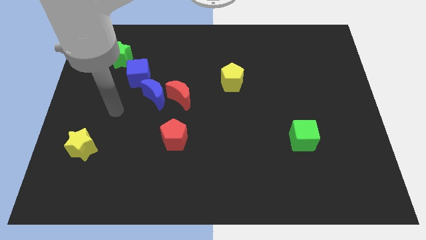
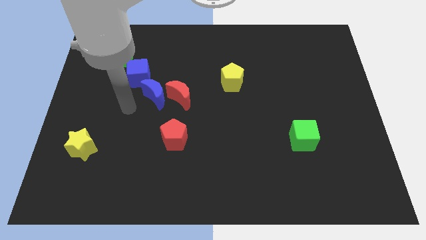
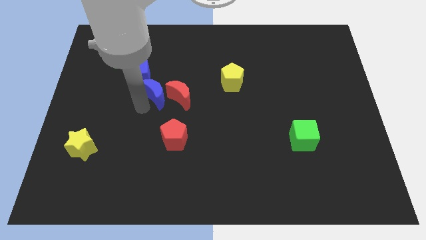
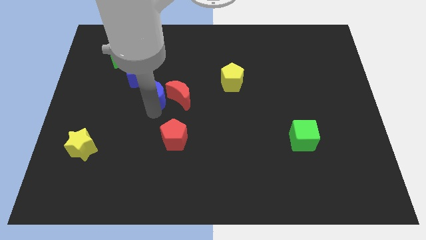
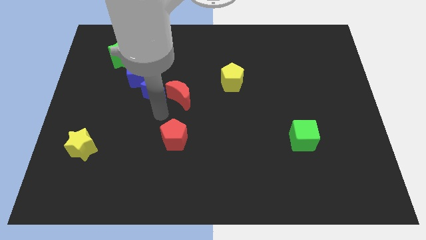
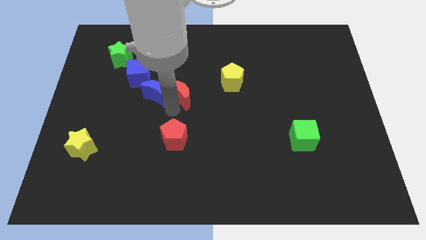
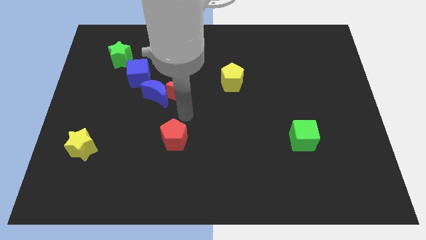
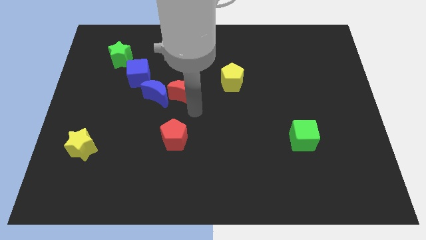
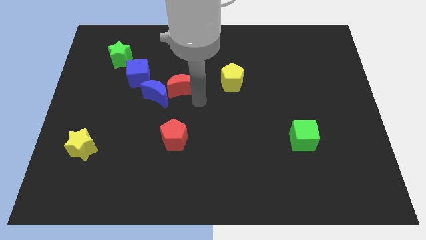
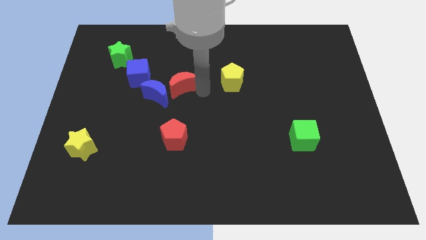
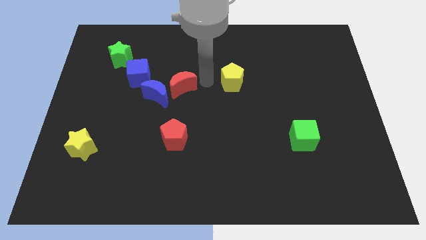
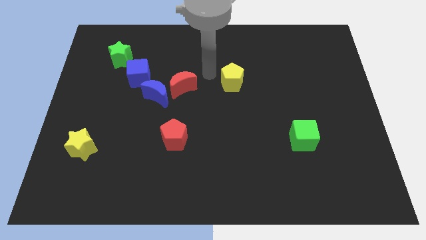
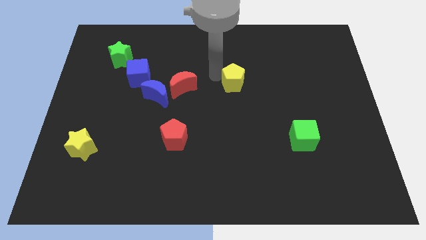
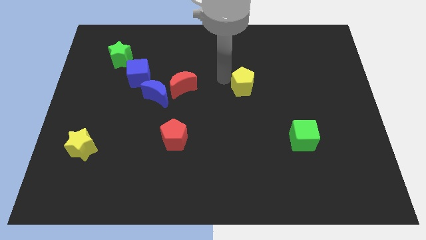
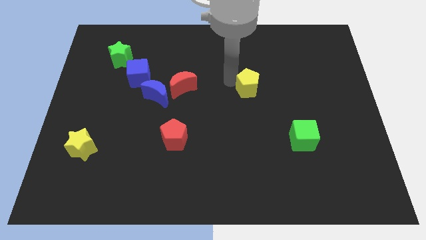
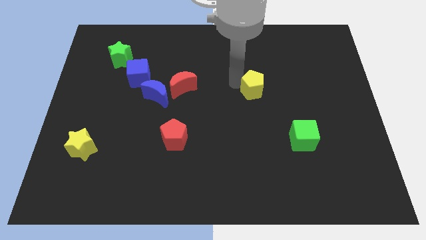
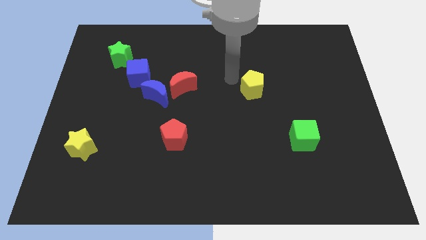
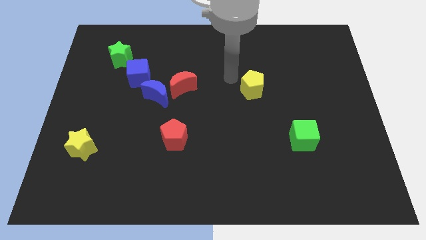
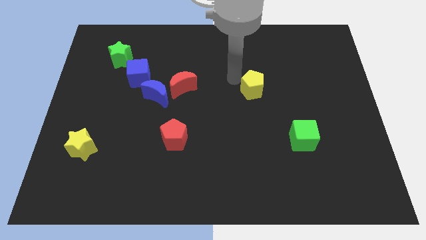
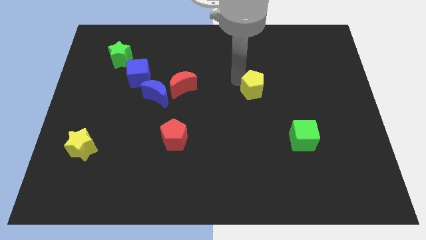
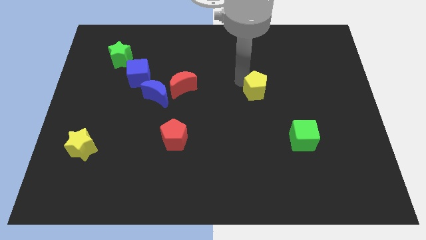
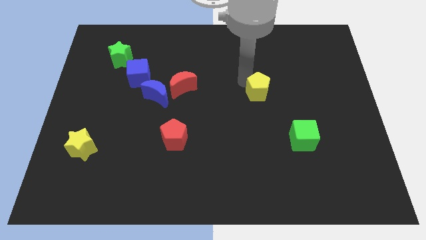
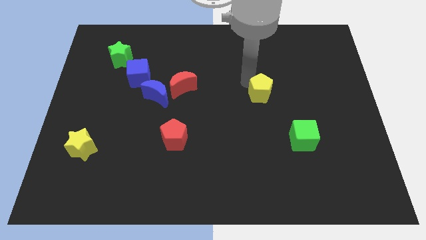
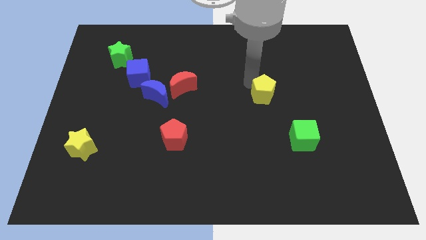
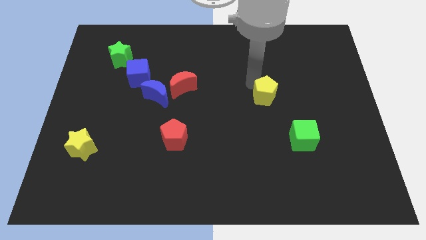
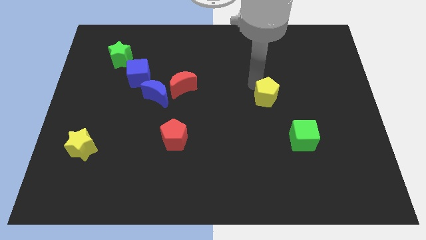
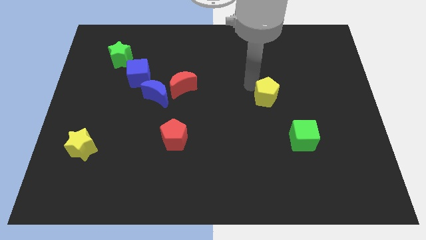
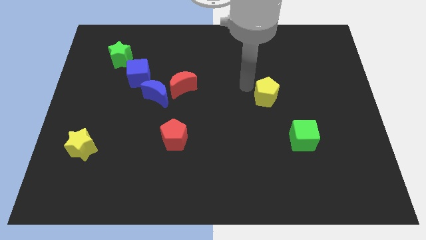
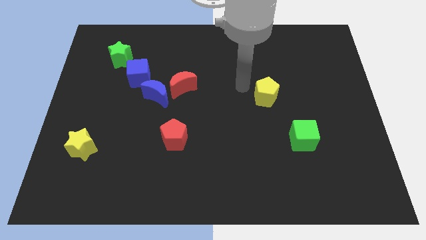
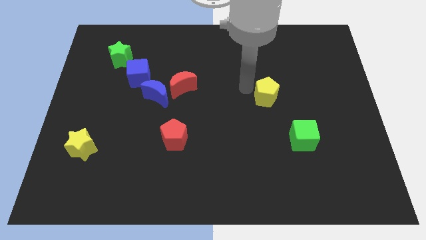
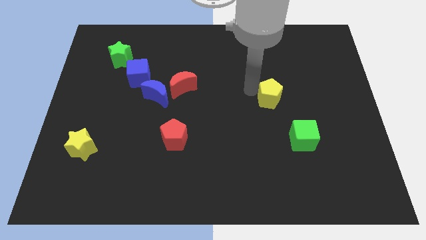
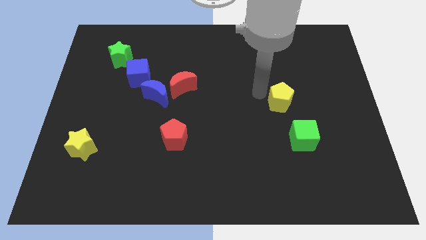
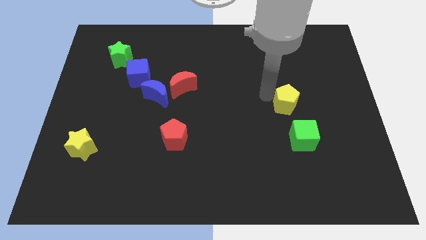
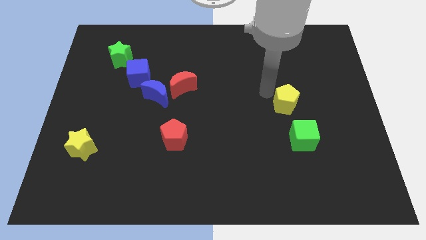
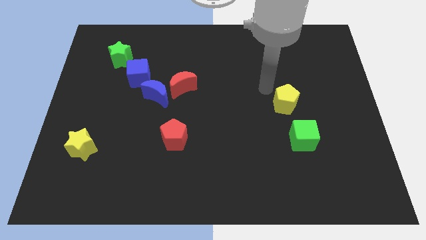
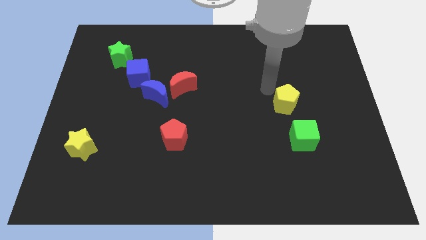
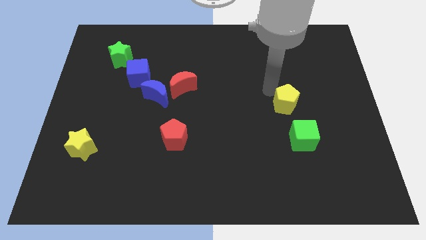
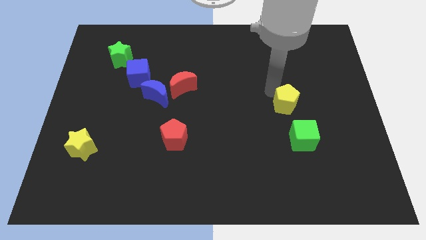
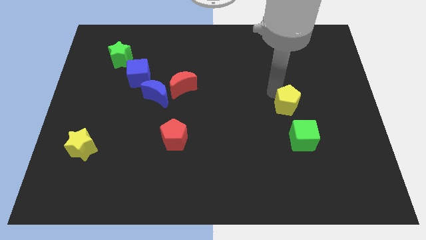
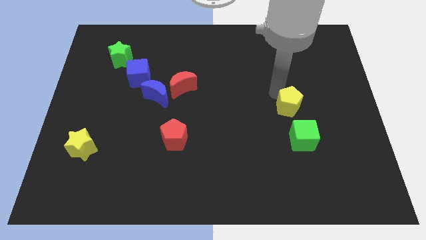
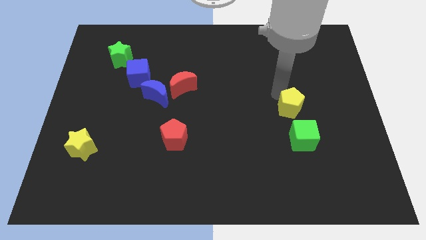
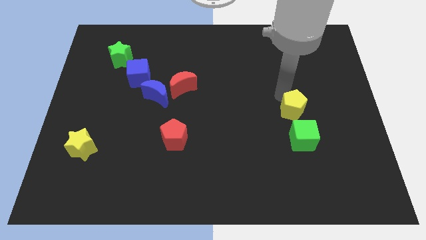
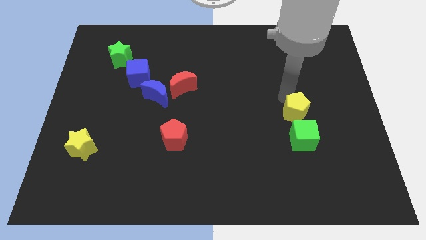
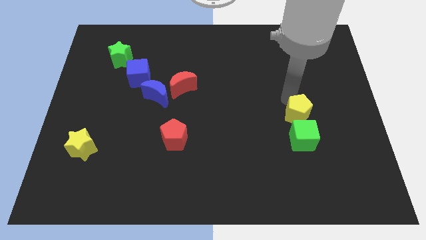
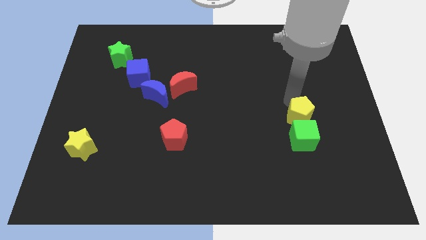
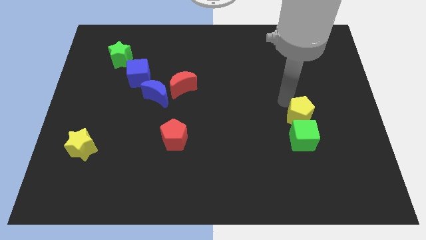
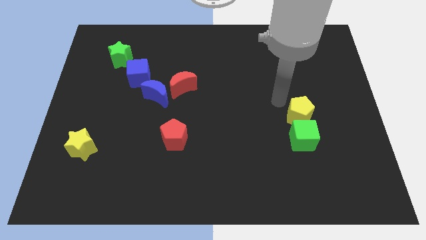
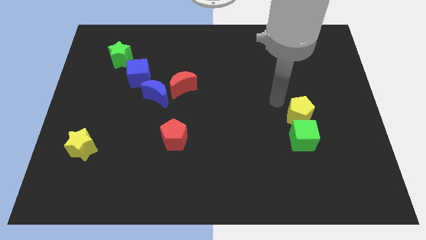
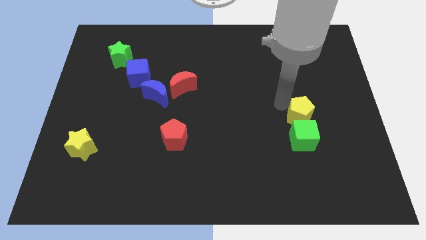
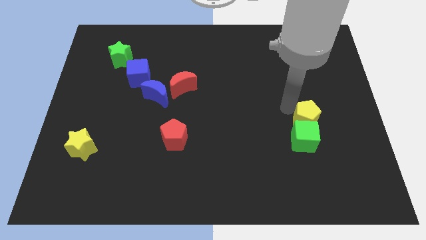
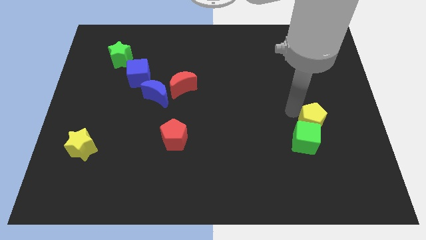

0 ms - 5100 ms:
move the yellow pentagon down and to the right diagonally

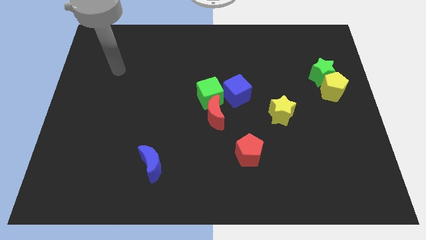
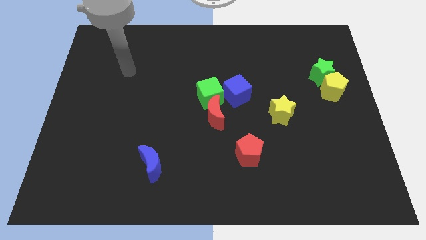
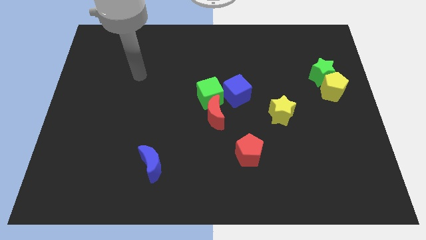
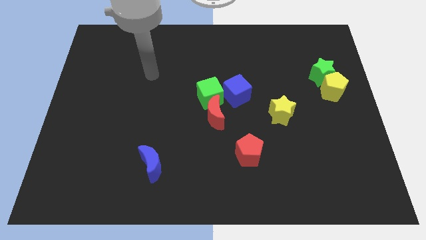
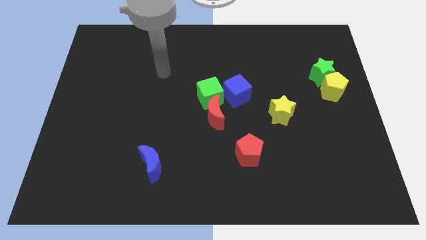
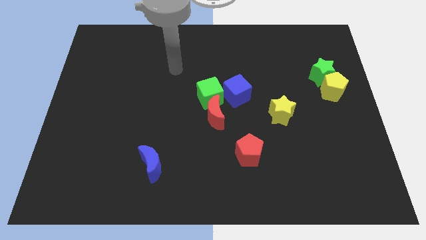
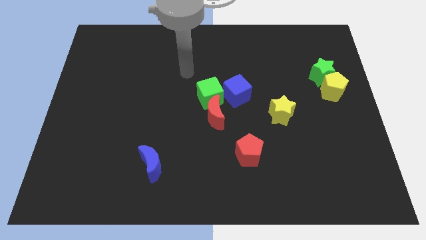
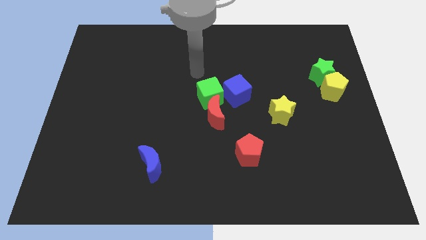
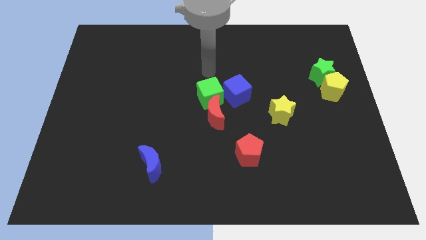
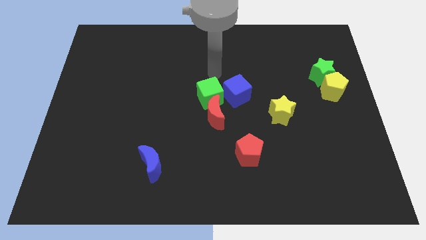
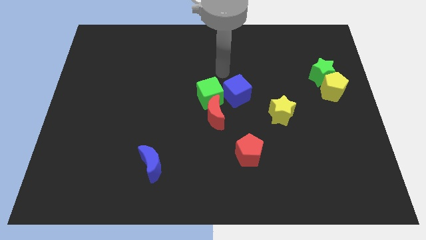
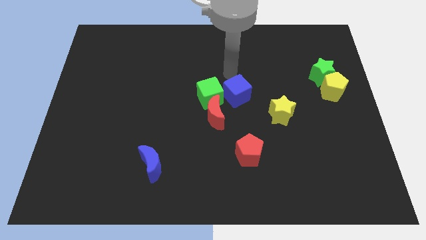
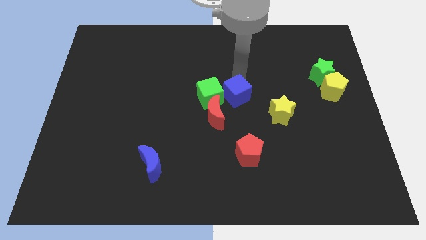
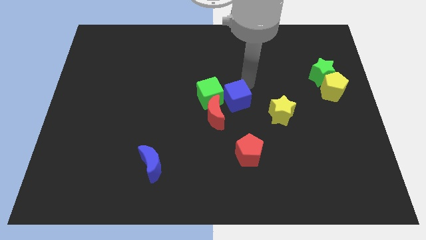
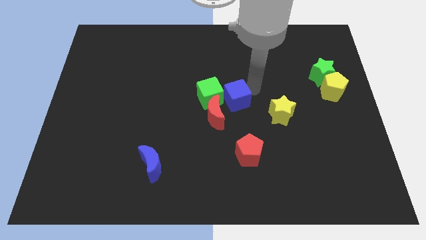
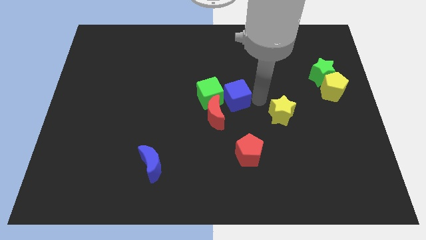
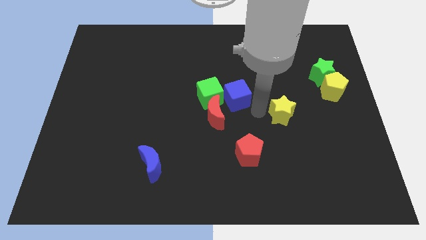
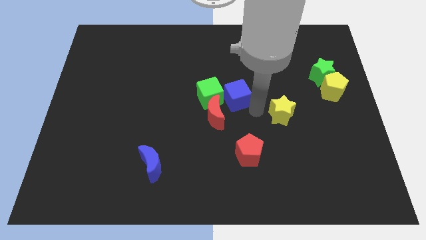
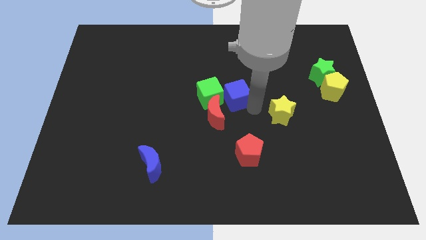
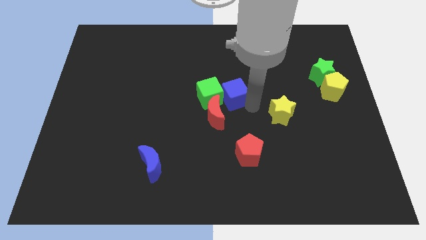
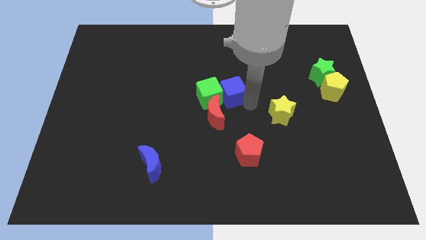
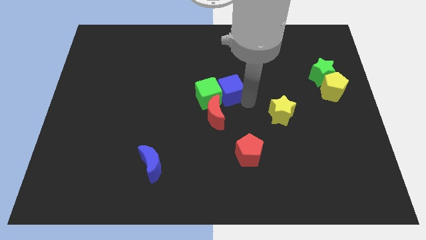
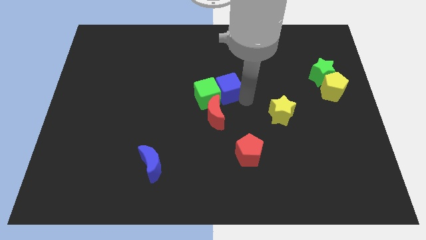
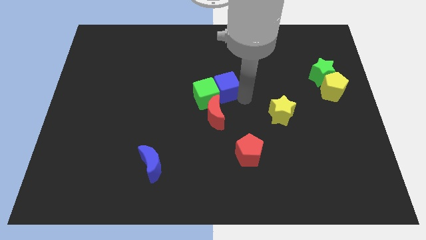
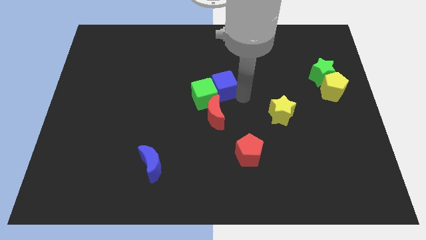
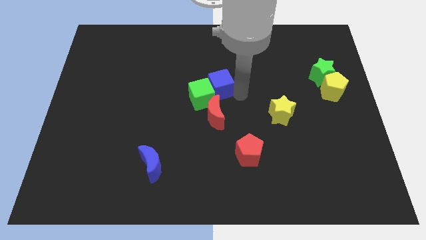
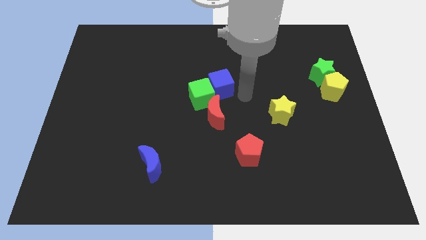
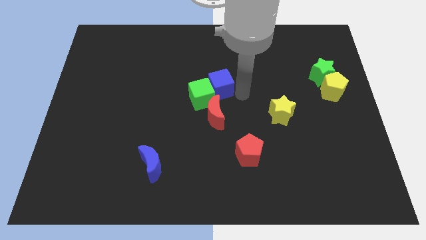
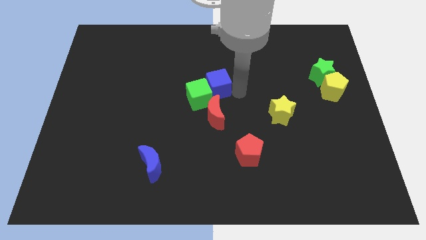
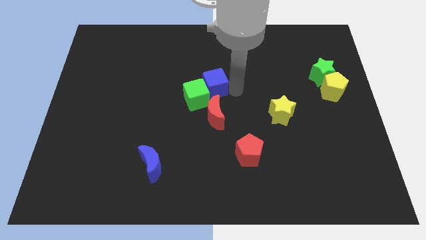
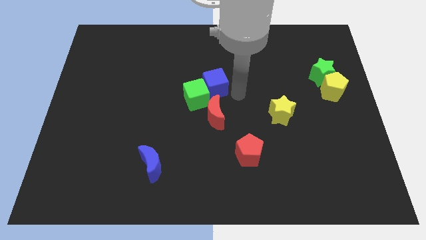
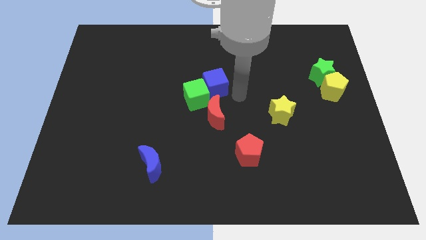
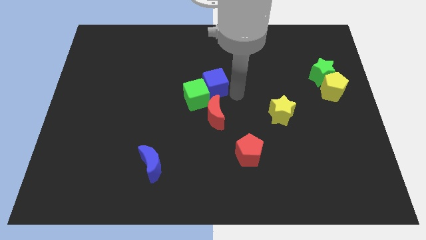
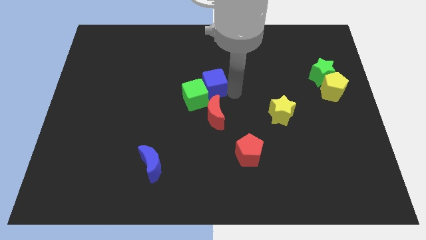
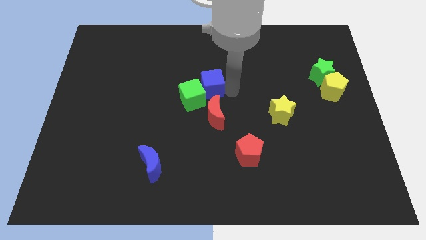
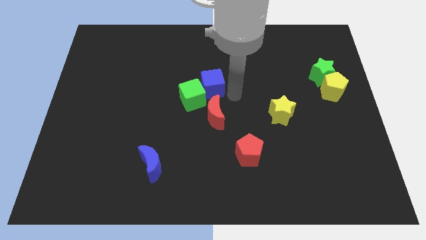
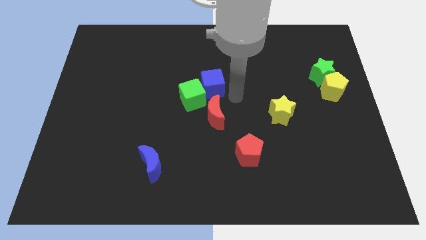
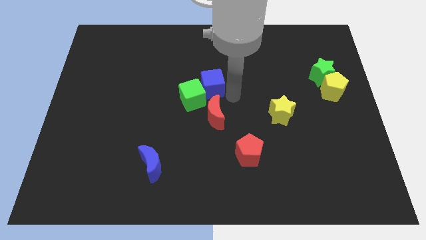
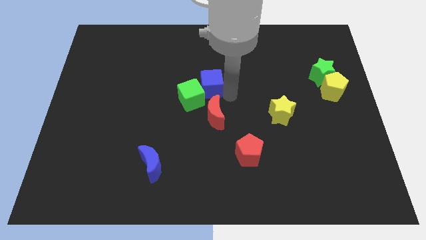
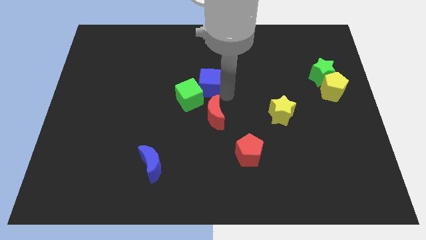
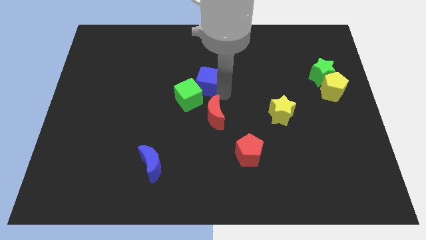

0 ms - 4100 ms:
slightly slide the blue cube left
